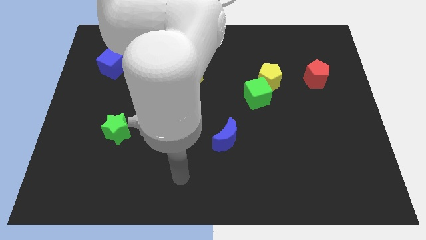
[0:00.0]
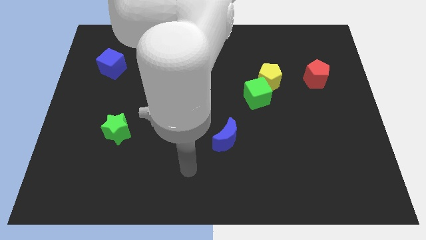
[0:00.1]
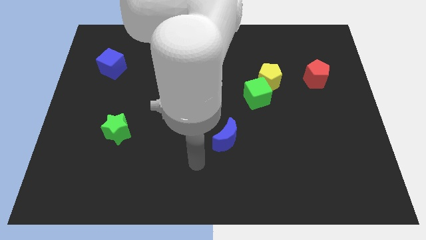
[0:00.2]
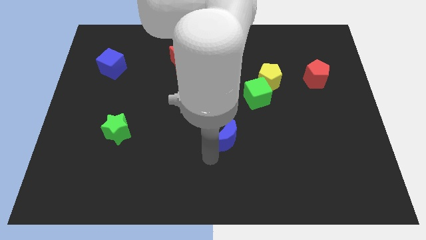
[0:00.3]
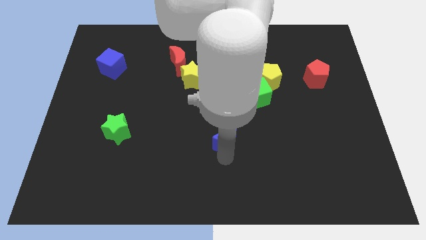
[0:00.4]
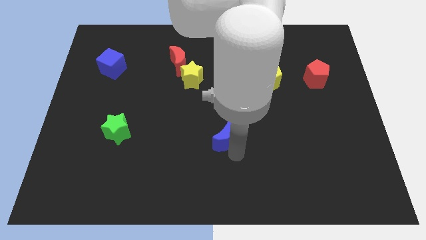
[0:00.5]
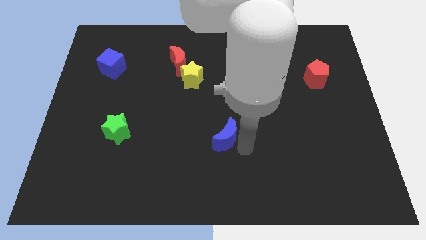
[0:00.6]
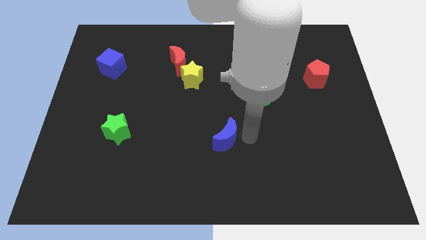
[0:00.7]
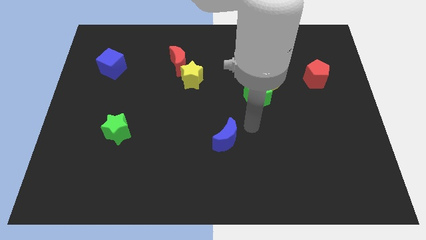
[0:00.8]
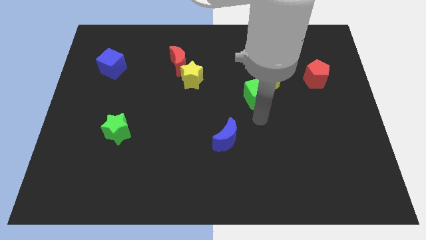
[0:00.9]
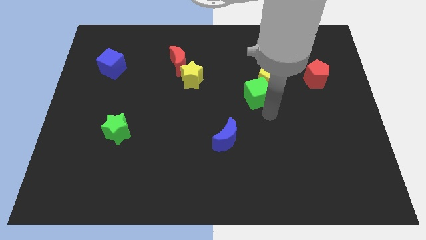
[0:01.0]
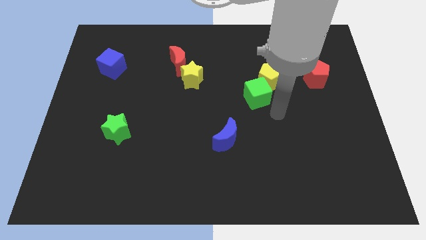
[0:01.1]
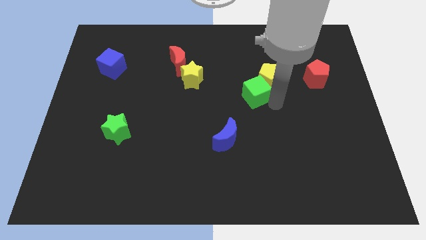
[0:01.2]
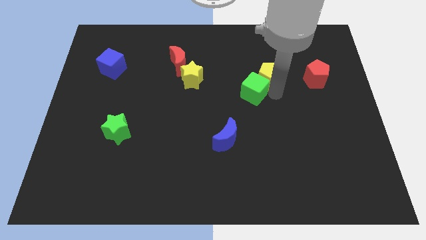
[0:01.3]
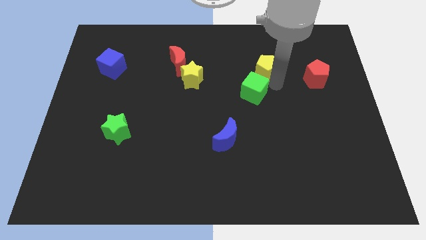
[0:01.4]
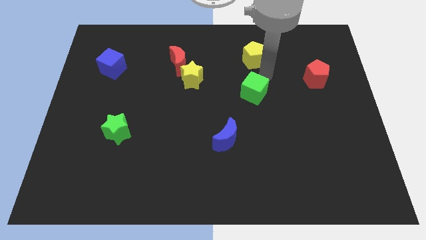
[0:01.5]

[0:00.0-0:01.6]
pull the green cube apart from the yellow pentagon

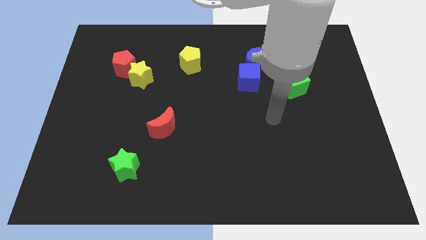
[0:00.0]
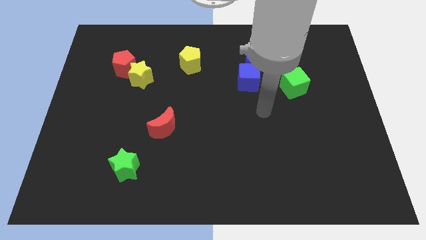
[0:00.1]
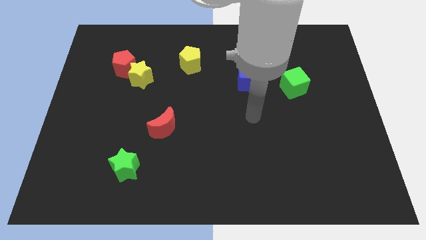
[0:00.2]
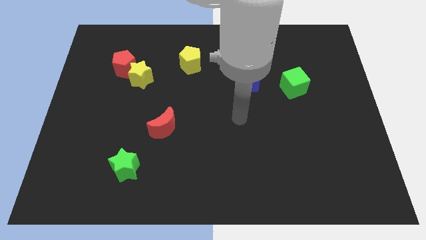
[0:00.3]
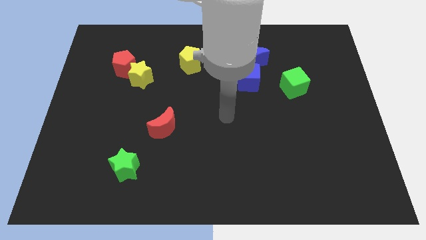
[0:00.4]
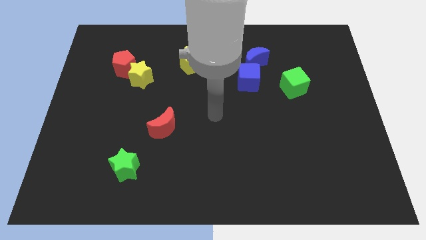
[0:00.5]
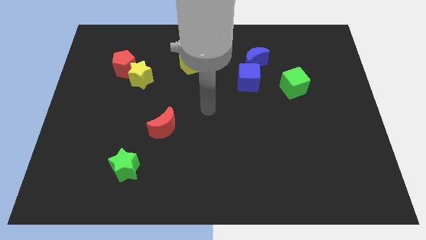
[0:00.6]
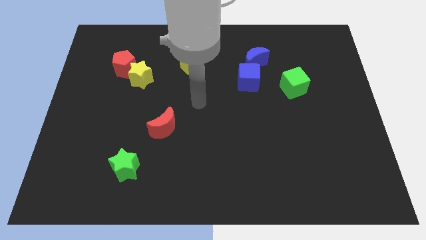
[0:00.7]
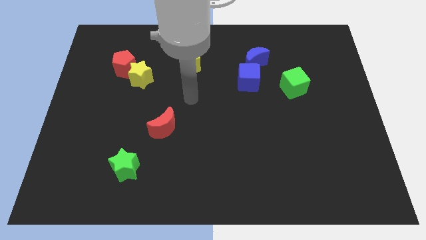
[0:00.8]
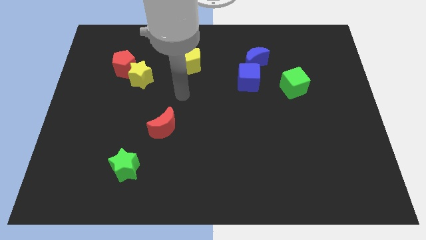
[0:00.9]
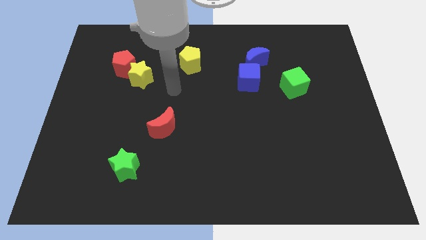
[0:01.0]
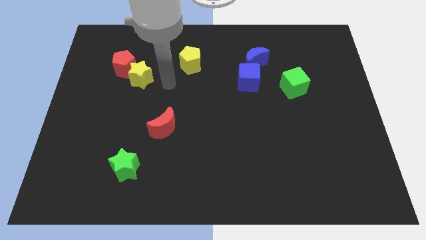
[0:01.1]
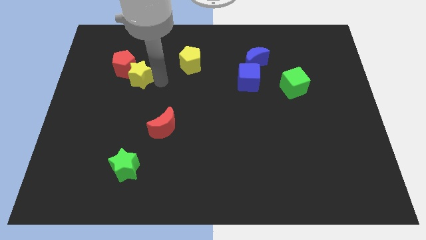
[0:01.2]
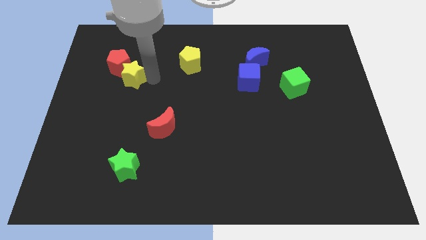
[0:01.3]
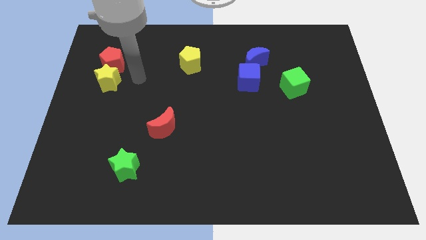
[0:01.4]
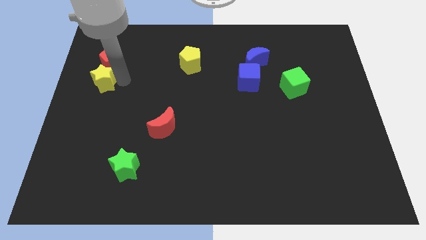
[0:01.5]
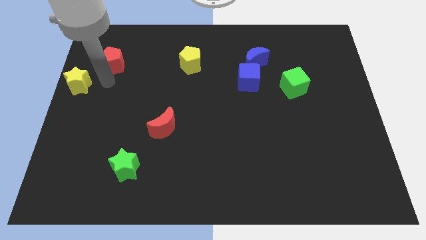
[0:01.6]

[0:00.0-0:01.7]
separate the red pentagon from the yellow star

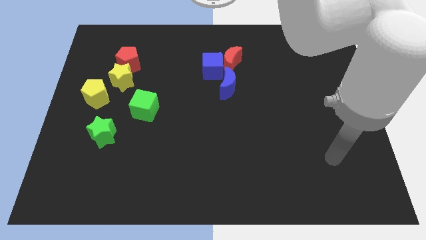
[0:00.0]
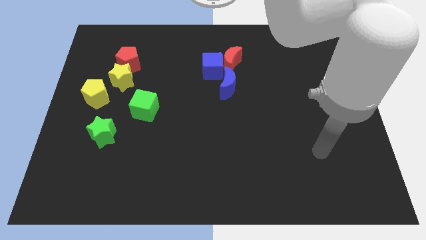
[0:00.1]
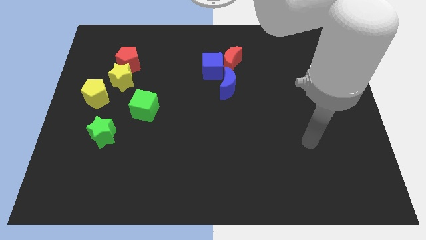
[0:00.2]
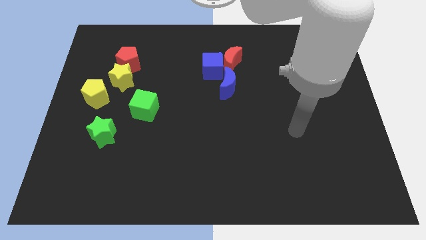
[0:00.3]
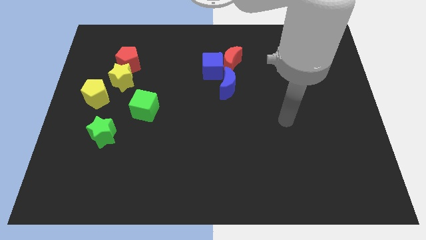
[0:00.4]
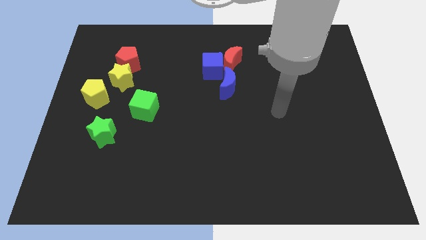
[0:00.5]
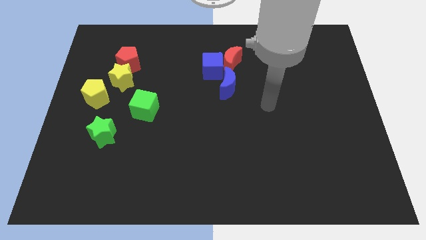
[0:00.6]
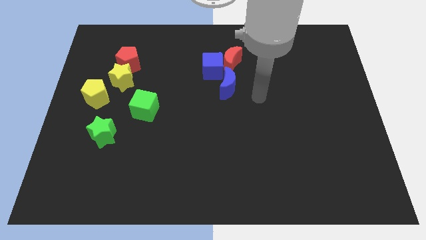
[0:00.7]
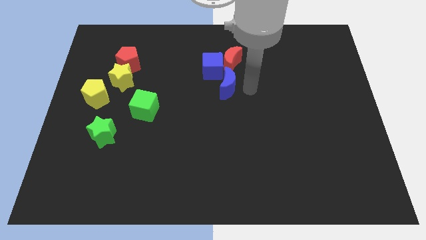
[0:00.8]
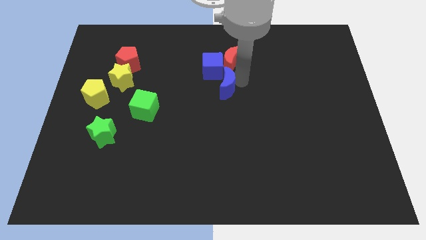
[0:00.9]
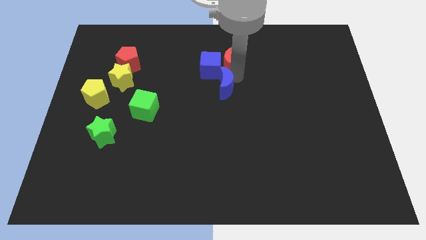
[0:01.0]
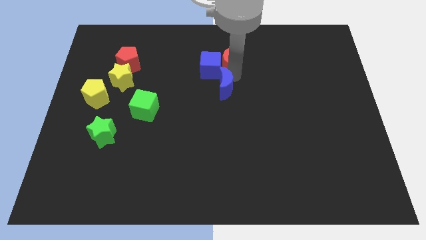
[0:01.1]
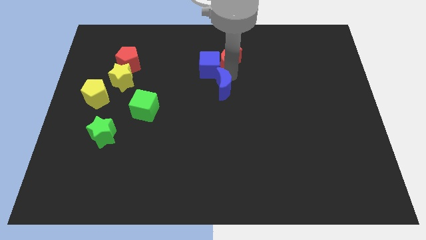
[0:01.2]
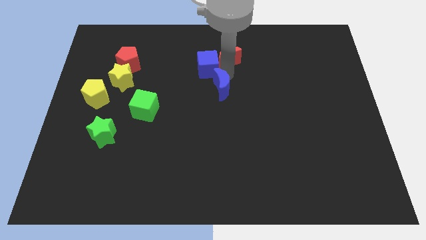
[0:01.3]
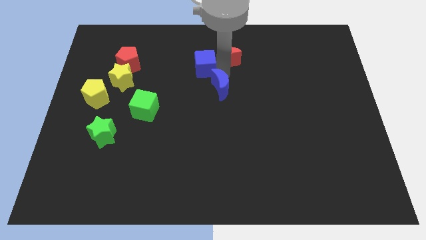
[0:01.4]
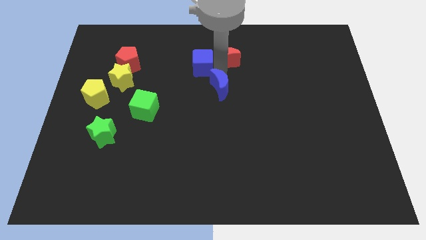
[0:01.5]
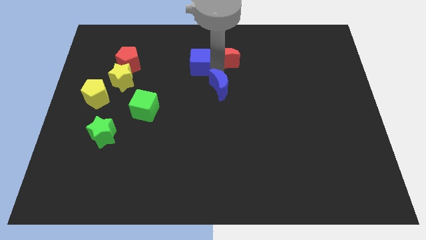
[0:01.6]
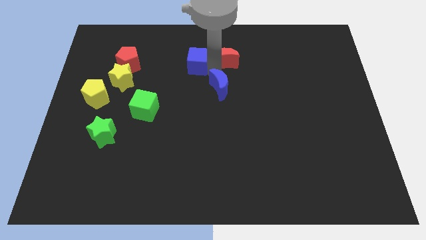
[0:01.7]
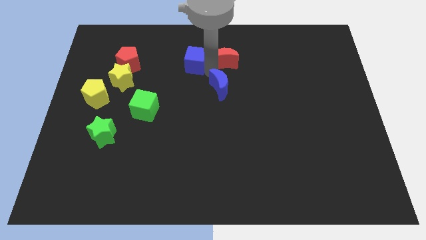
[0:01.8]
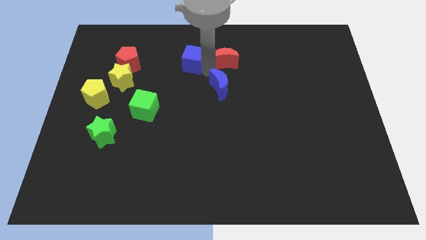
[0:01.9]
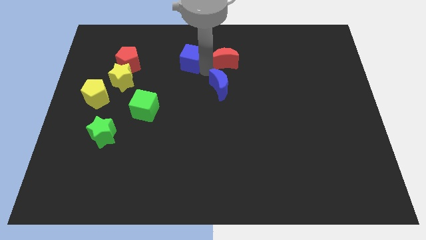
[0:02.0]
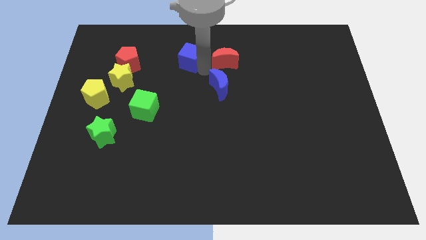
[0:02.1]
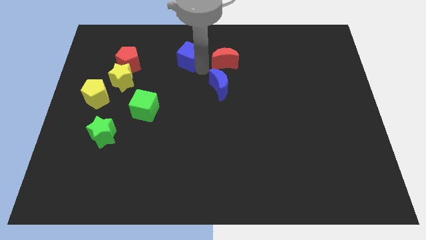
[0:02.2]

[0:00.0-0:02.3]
separate the blue cube from the red moon and blue moon

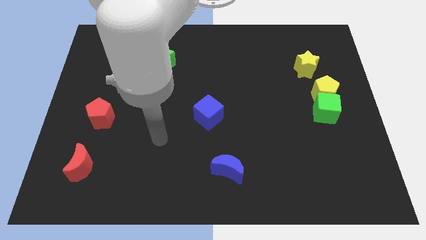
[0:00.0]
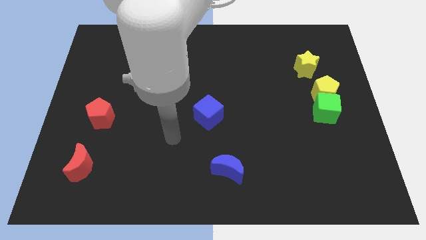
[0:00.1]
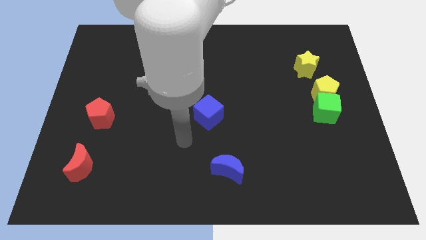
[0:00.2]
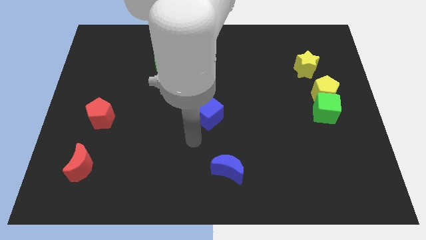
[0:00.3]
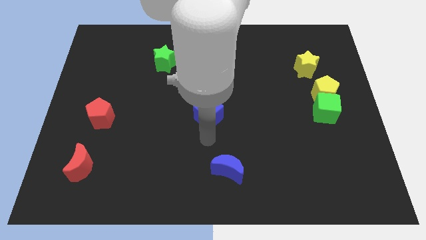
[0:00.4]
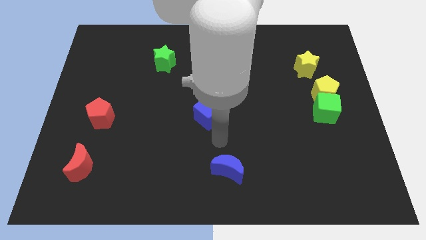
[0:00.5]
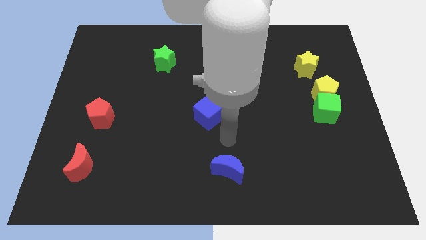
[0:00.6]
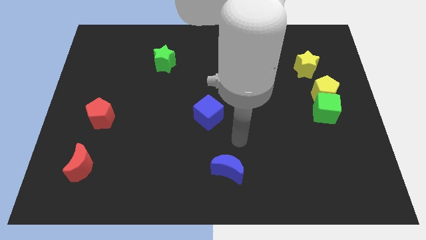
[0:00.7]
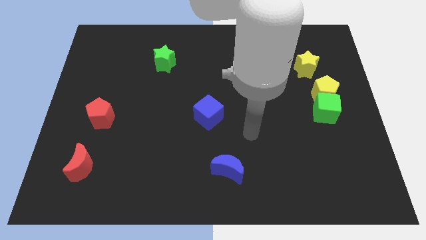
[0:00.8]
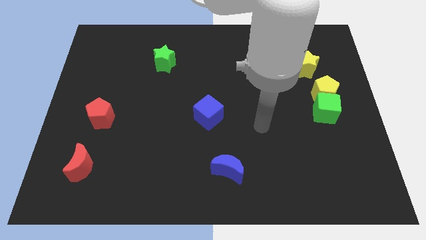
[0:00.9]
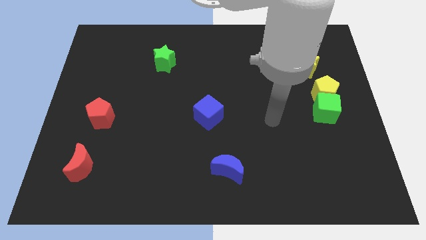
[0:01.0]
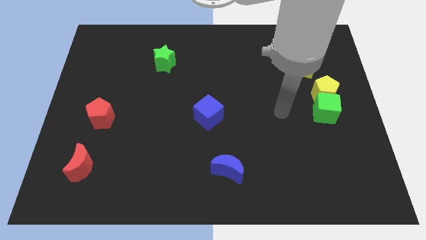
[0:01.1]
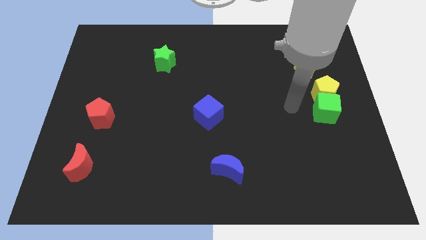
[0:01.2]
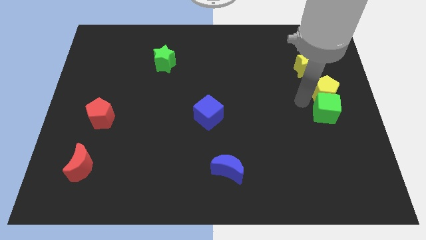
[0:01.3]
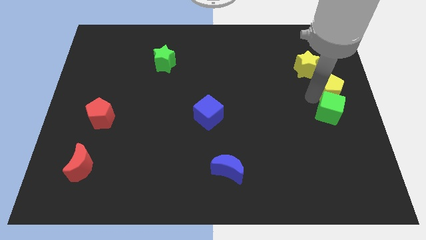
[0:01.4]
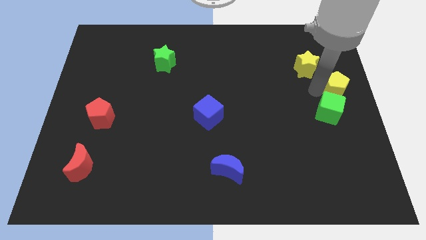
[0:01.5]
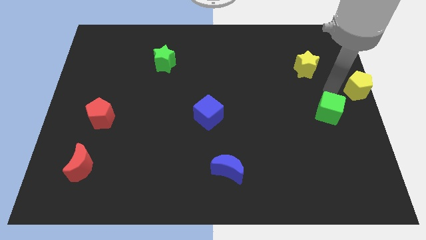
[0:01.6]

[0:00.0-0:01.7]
move the green cube away from the yellow pentagon

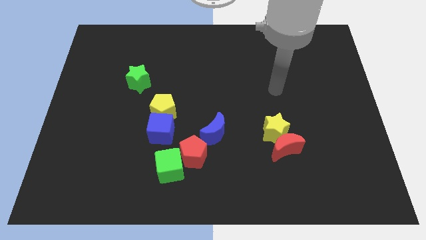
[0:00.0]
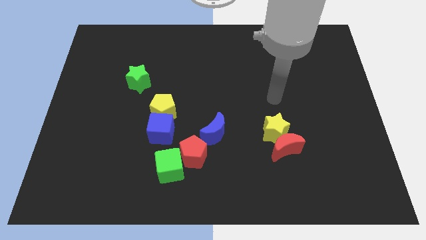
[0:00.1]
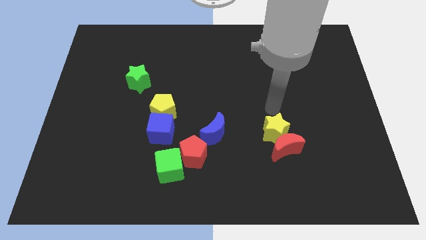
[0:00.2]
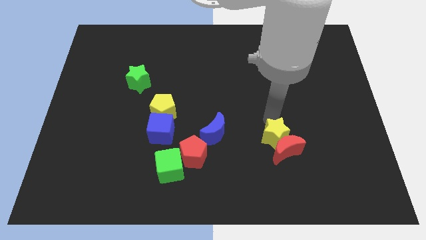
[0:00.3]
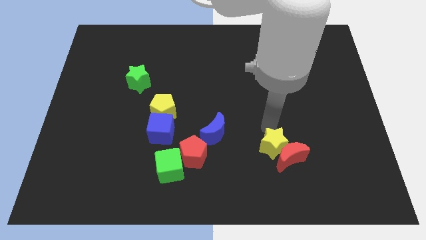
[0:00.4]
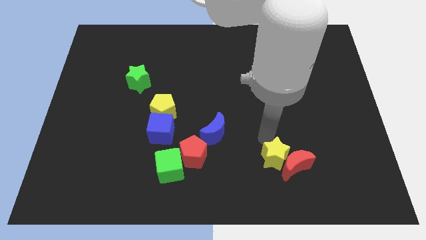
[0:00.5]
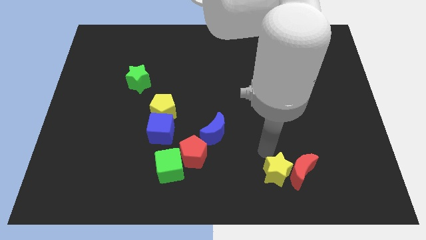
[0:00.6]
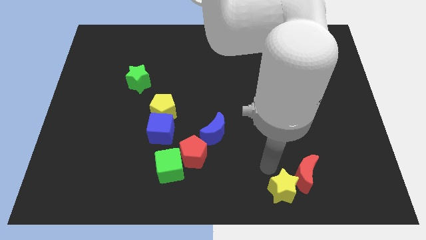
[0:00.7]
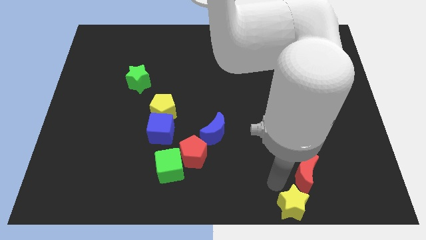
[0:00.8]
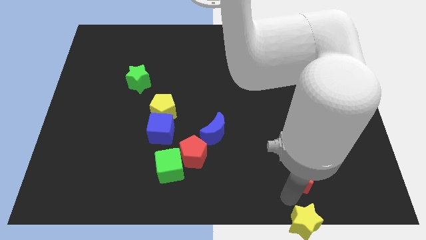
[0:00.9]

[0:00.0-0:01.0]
move the red moon away from the yellow star

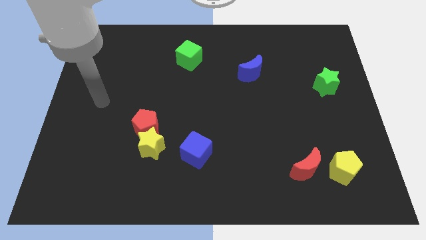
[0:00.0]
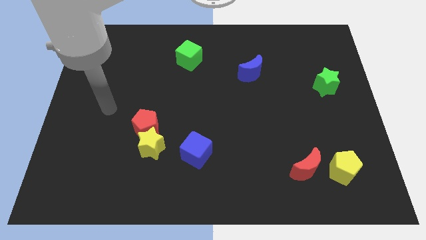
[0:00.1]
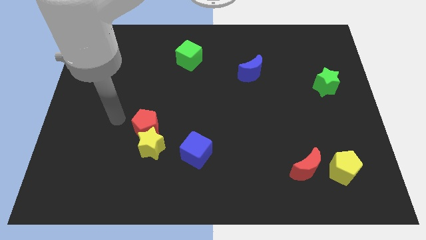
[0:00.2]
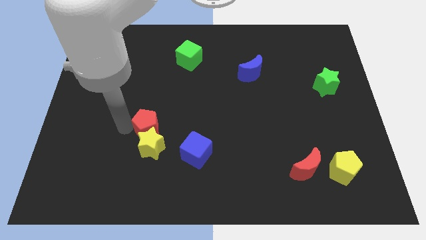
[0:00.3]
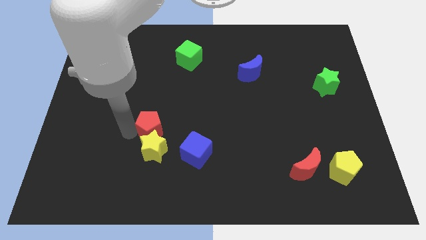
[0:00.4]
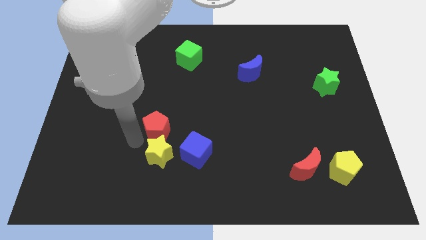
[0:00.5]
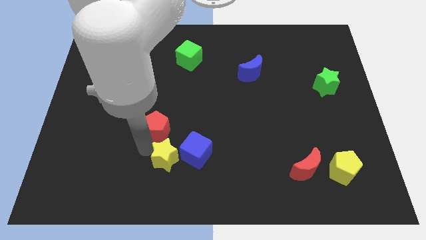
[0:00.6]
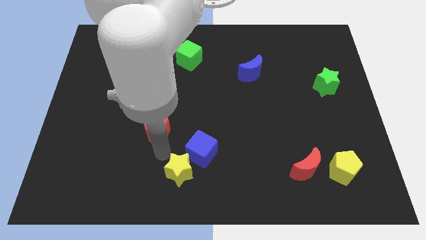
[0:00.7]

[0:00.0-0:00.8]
pull the red pentagon apart from the yellow star

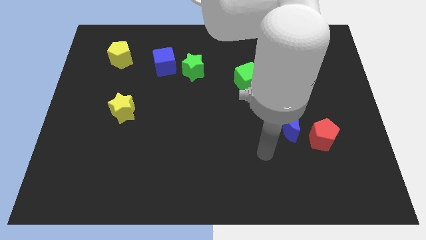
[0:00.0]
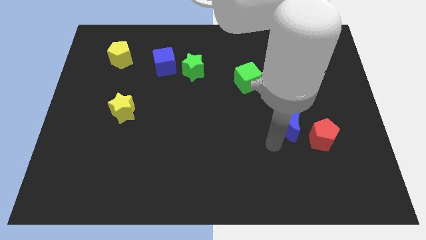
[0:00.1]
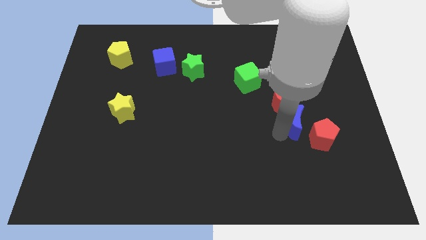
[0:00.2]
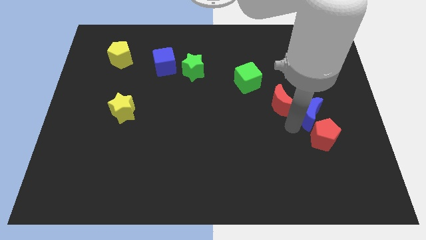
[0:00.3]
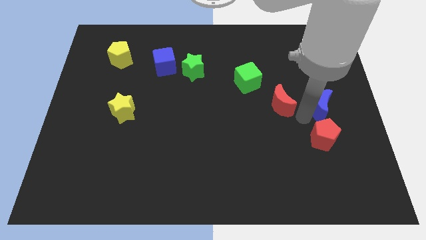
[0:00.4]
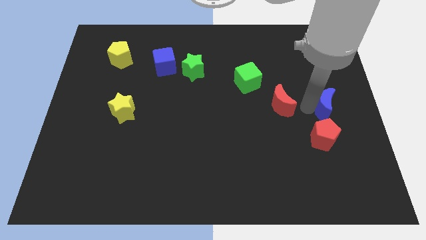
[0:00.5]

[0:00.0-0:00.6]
move the red moon away from the blue moon
